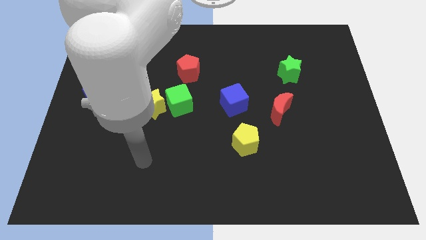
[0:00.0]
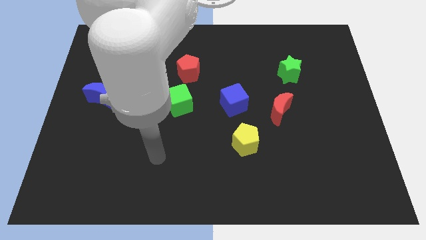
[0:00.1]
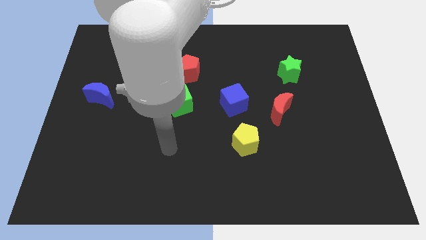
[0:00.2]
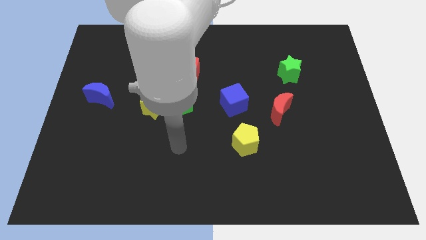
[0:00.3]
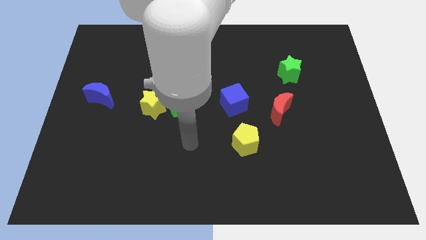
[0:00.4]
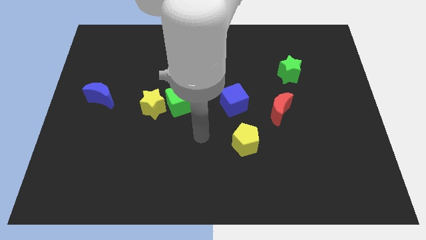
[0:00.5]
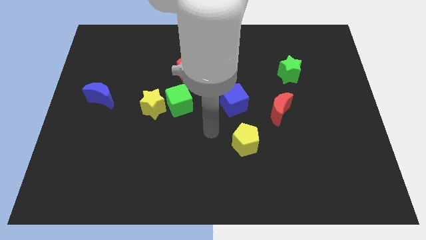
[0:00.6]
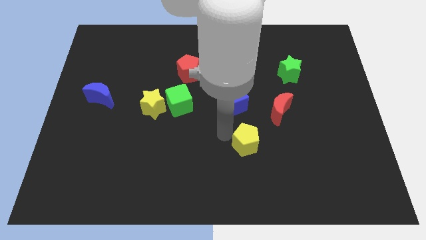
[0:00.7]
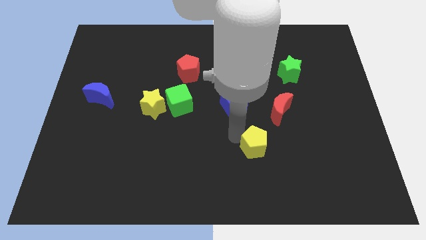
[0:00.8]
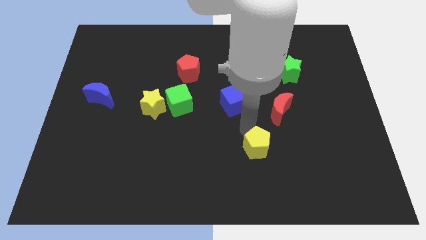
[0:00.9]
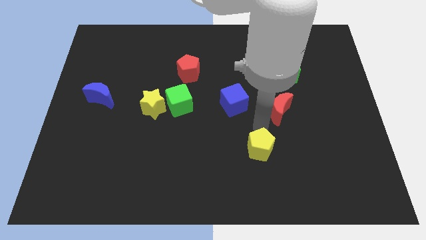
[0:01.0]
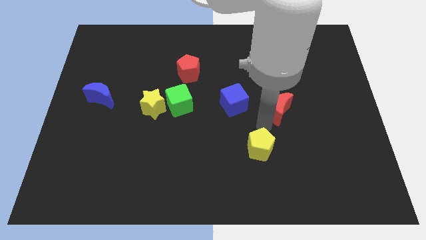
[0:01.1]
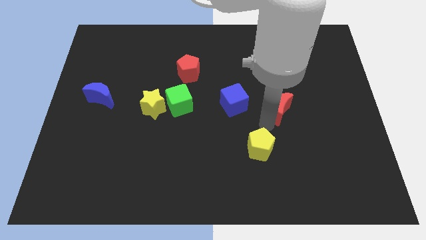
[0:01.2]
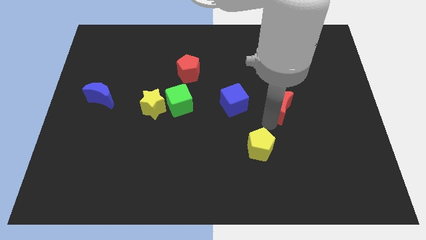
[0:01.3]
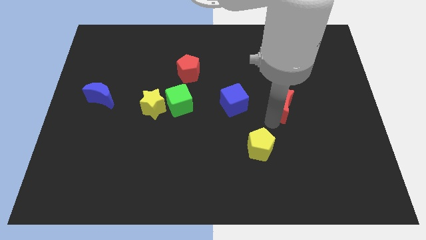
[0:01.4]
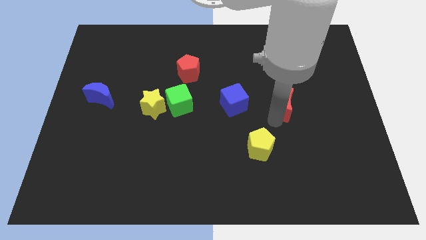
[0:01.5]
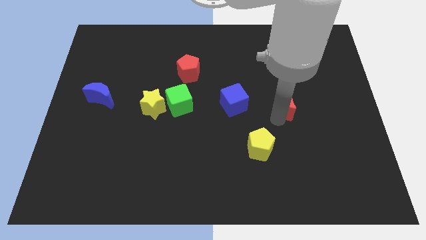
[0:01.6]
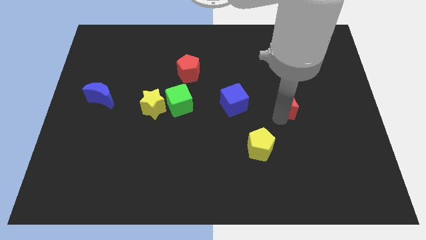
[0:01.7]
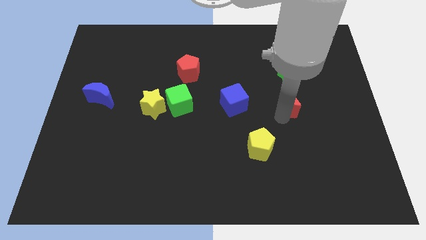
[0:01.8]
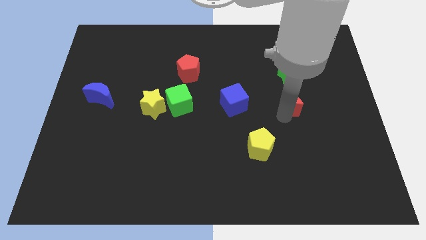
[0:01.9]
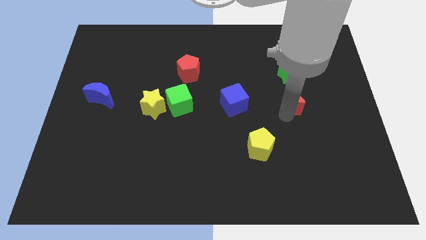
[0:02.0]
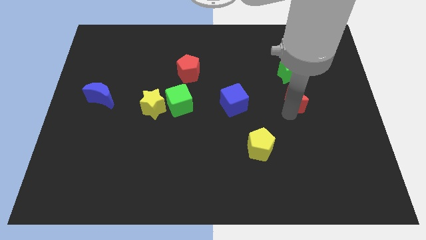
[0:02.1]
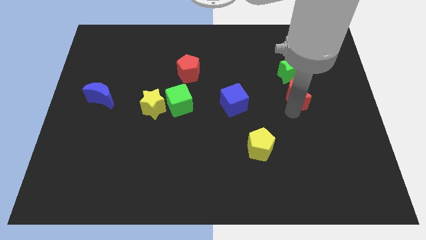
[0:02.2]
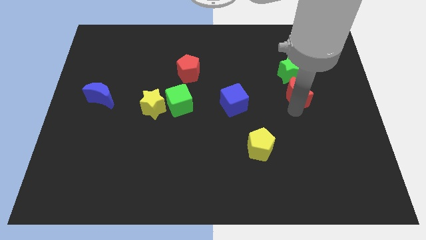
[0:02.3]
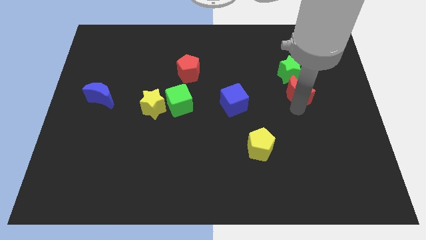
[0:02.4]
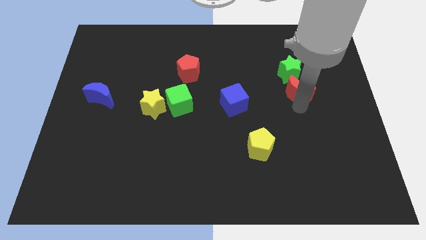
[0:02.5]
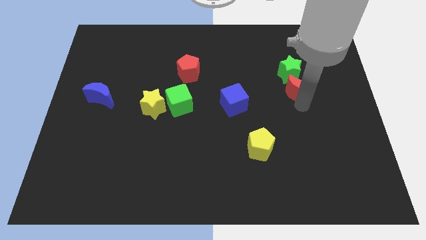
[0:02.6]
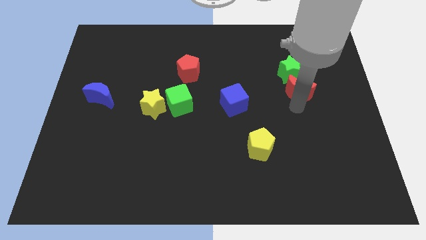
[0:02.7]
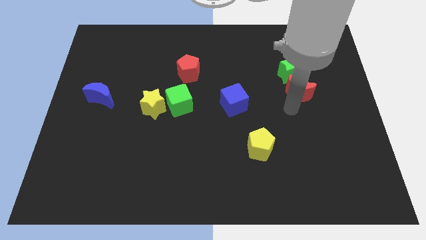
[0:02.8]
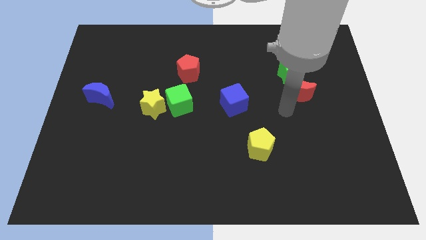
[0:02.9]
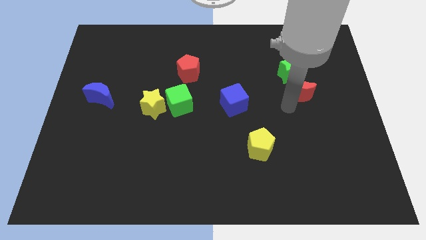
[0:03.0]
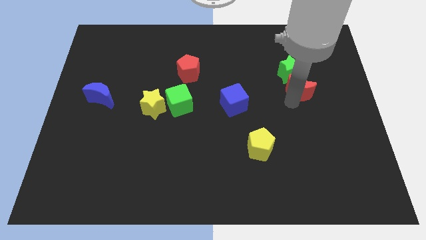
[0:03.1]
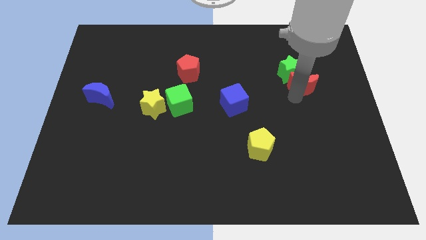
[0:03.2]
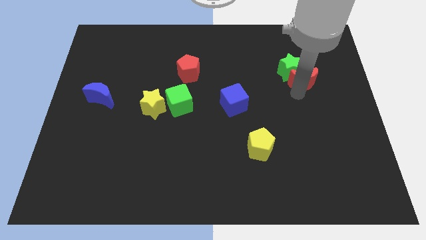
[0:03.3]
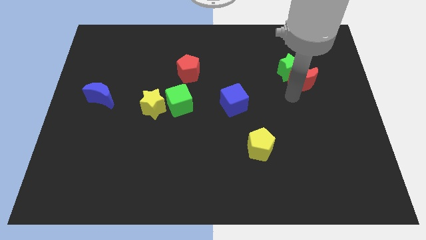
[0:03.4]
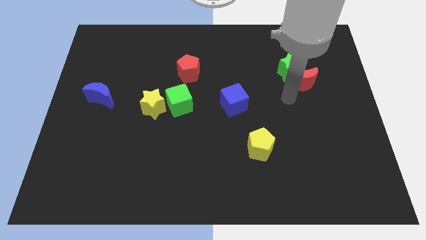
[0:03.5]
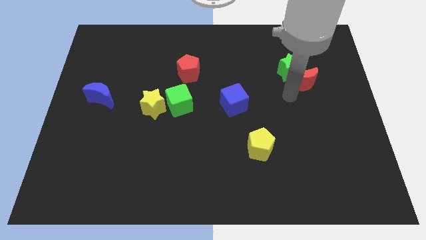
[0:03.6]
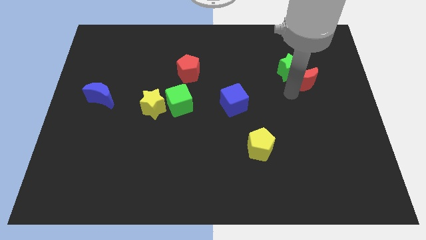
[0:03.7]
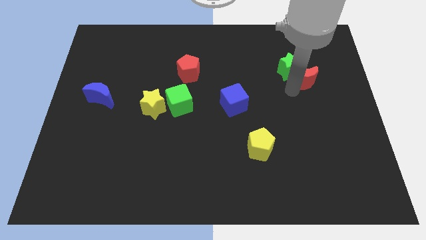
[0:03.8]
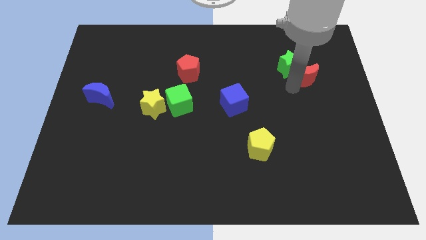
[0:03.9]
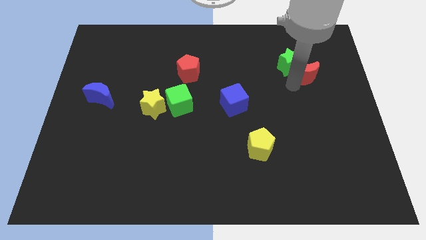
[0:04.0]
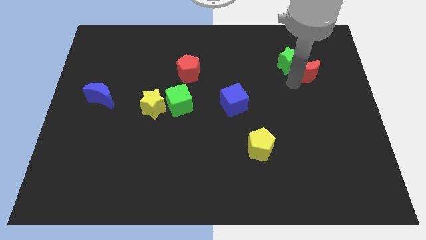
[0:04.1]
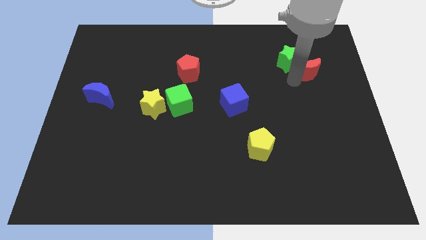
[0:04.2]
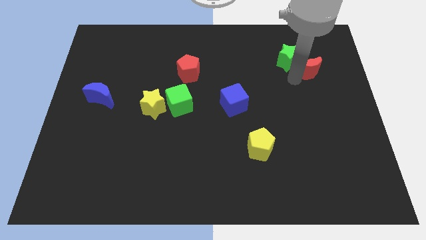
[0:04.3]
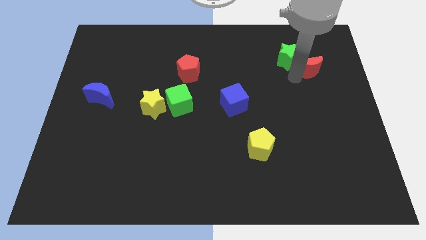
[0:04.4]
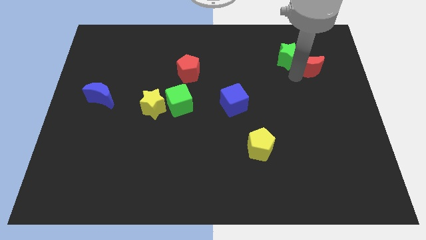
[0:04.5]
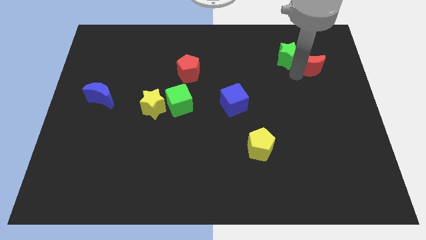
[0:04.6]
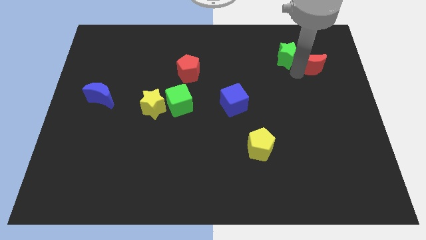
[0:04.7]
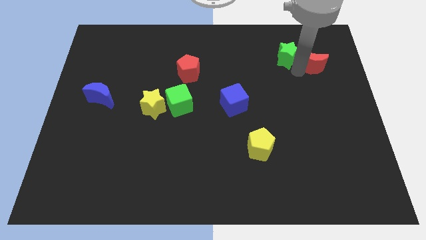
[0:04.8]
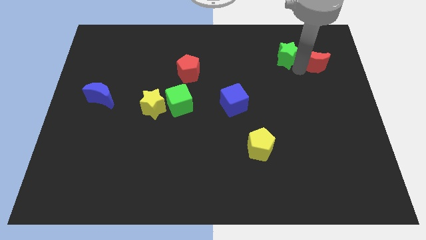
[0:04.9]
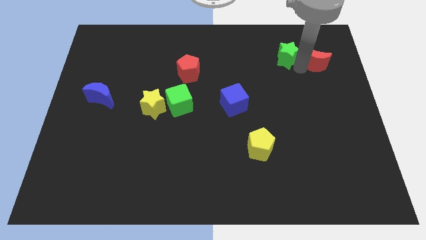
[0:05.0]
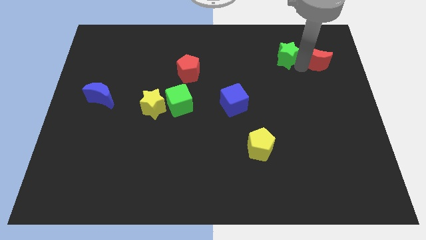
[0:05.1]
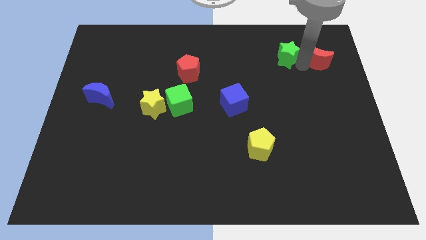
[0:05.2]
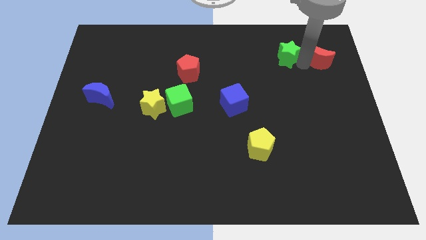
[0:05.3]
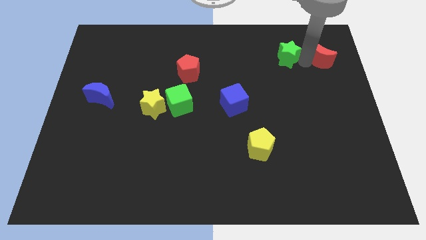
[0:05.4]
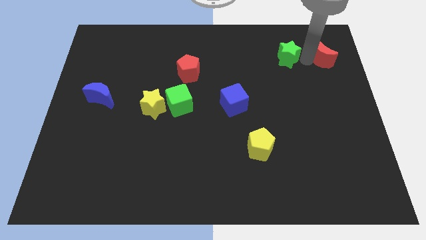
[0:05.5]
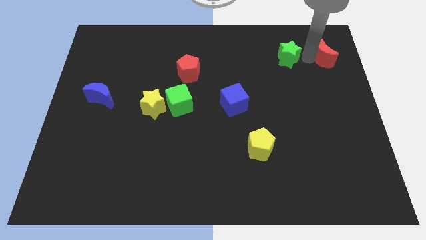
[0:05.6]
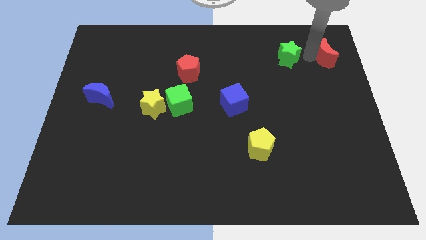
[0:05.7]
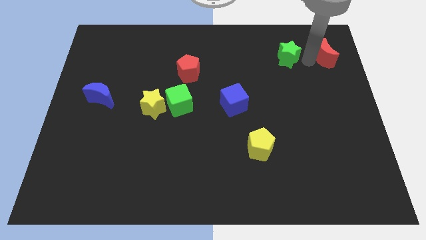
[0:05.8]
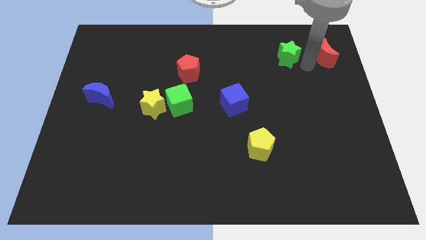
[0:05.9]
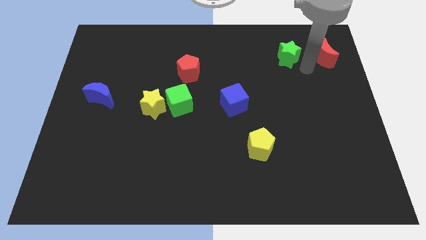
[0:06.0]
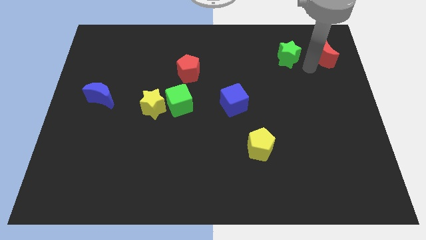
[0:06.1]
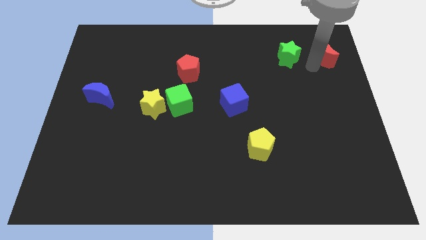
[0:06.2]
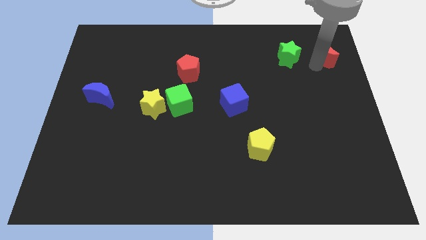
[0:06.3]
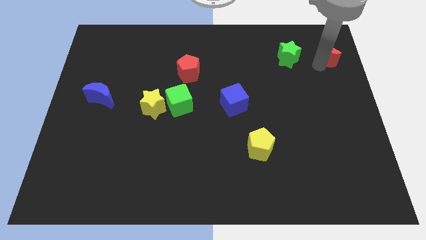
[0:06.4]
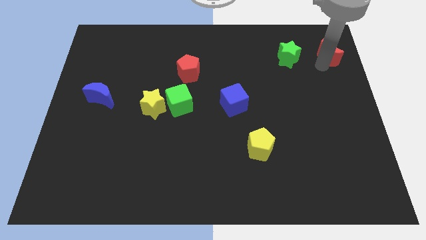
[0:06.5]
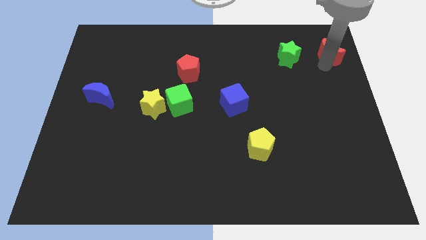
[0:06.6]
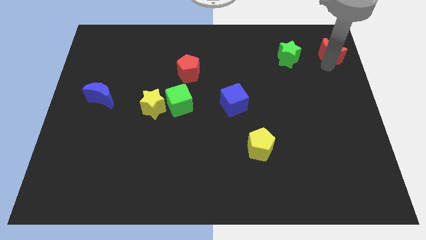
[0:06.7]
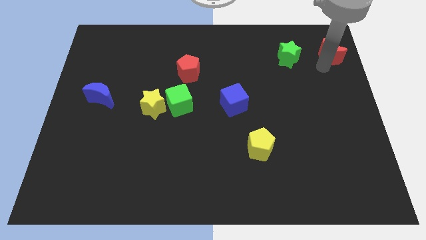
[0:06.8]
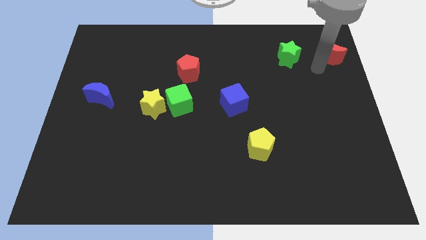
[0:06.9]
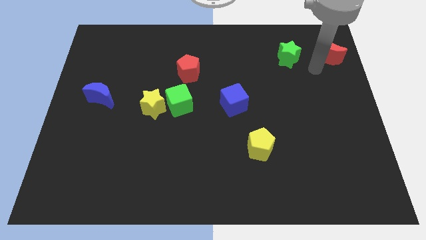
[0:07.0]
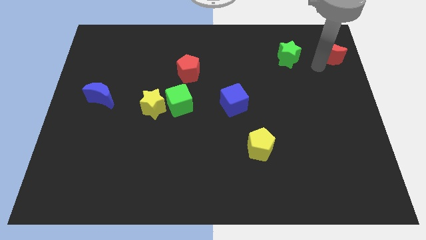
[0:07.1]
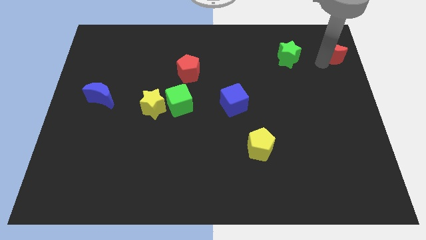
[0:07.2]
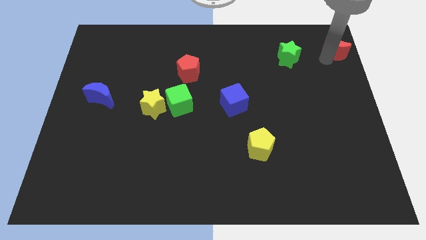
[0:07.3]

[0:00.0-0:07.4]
slide the red moon to the upper right corner
